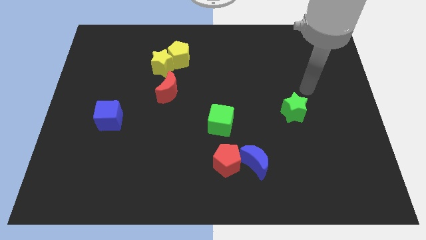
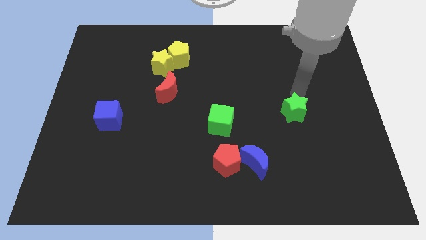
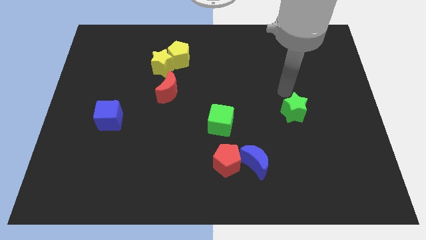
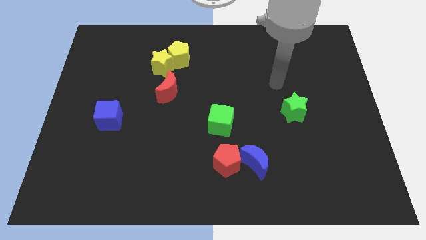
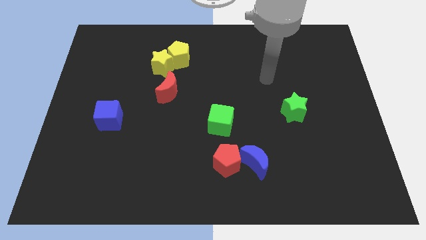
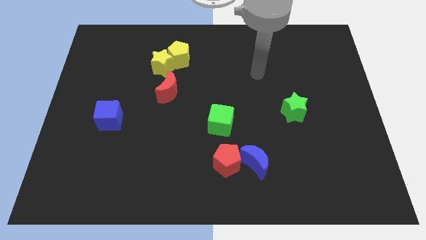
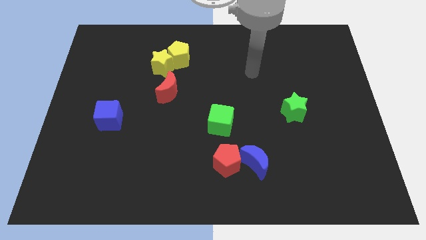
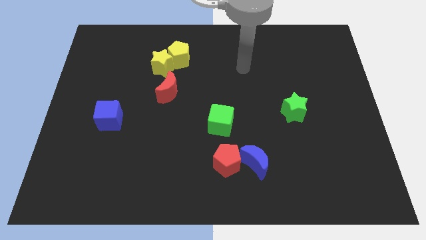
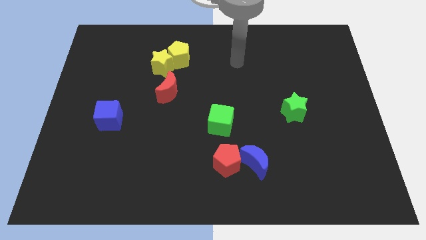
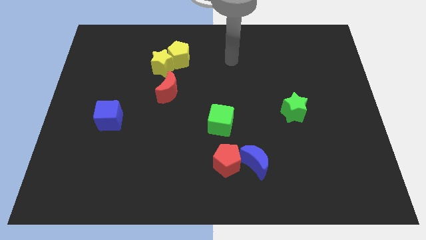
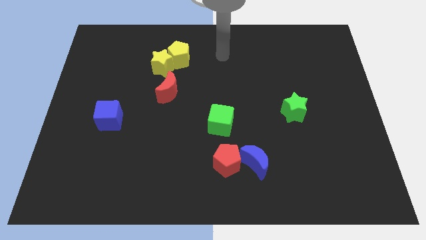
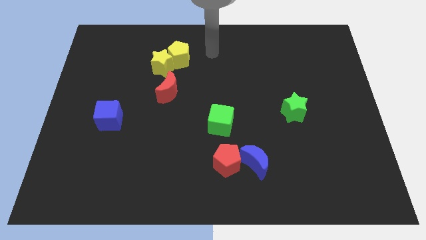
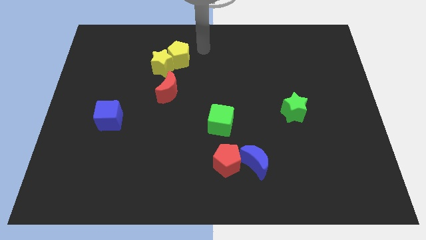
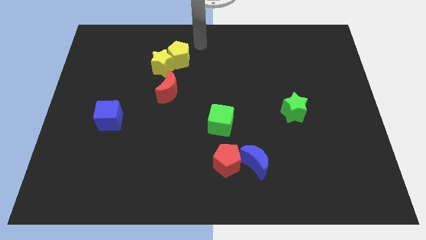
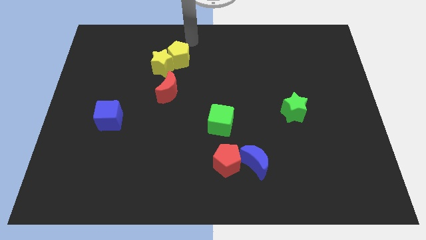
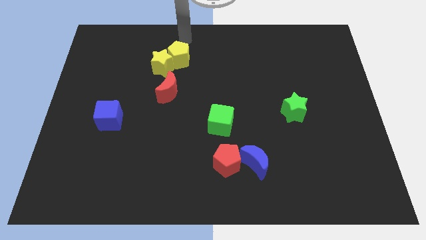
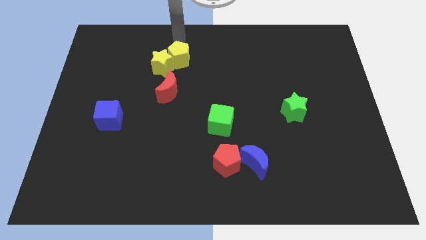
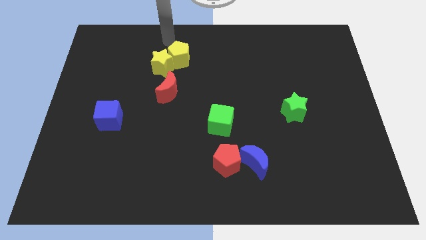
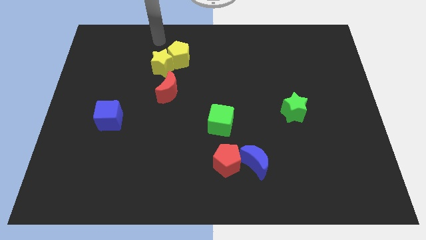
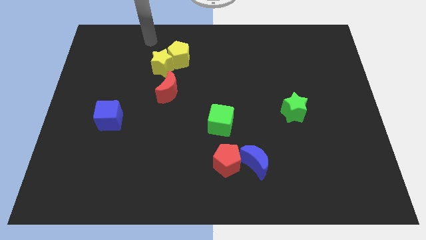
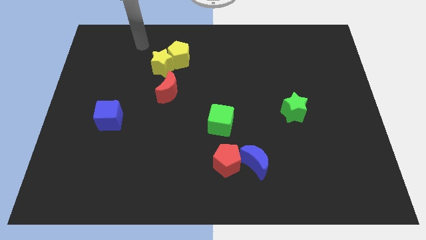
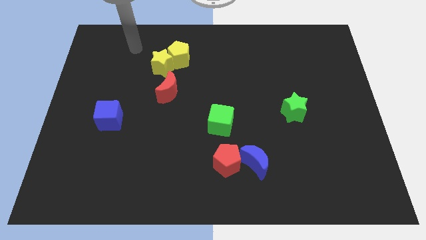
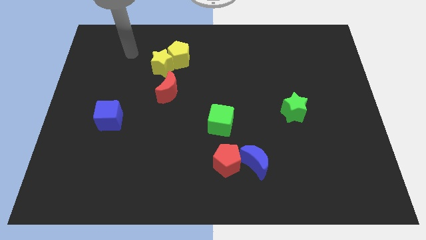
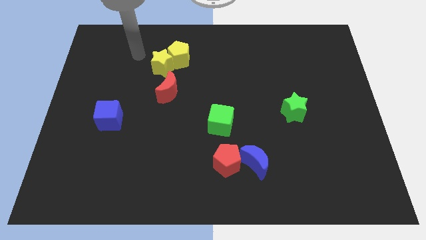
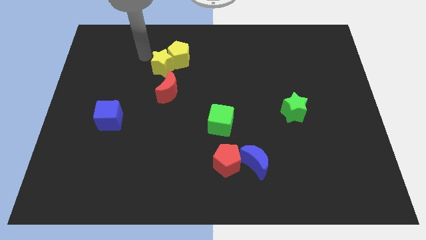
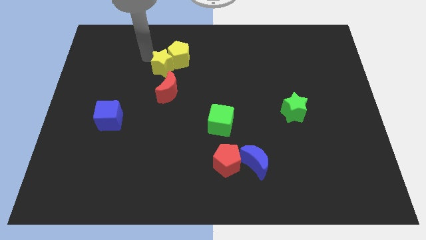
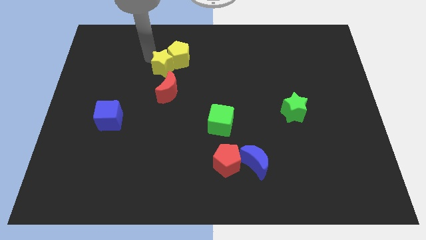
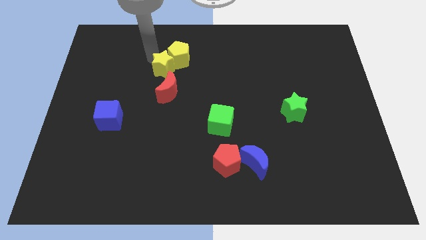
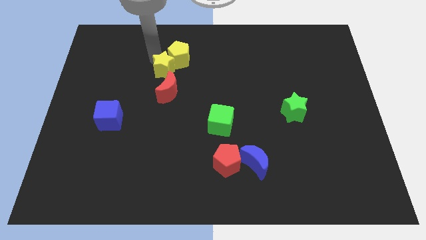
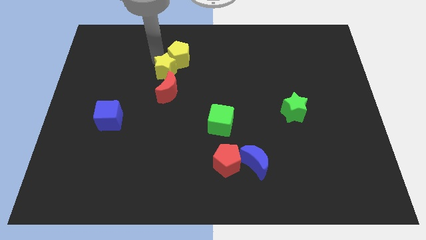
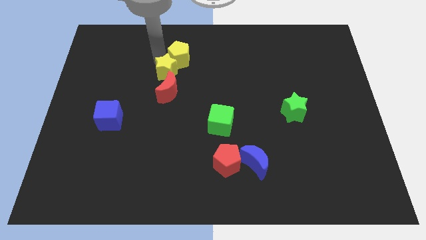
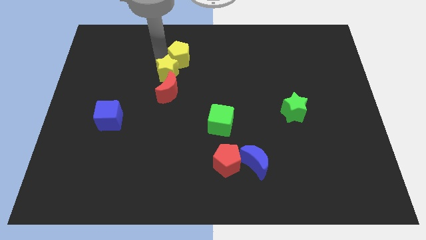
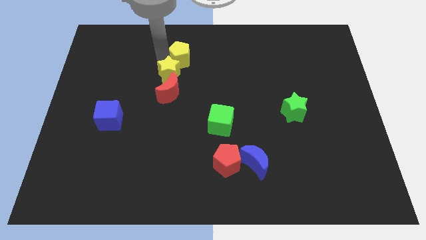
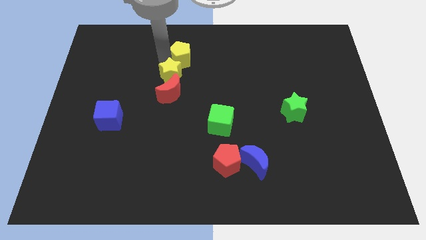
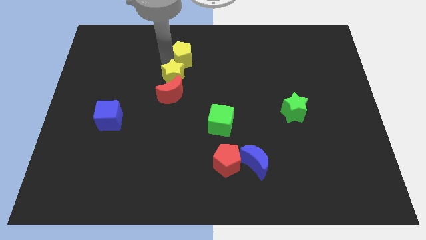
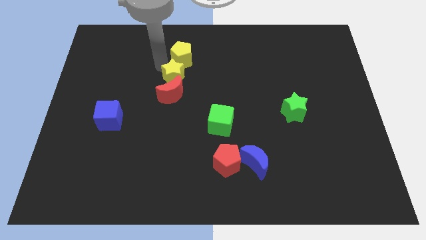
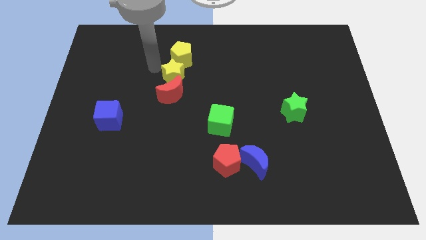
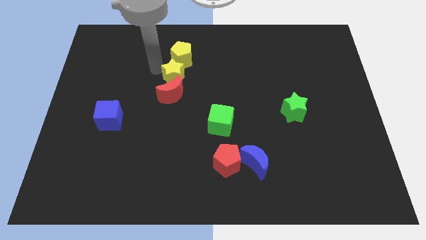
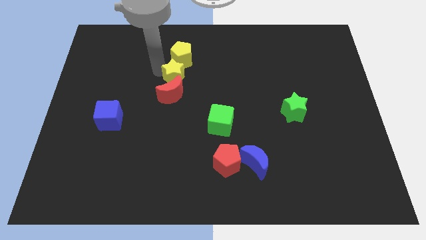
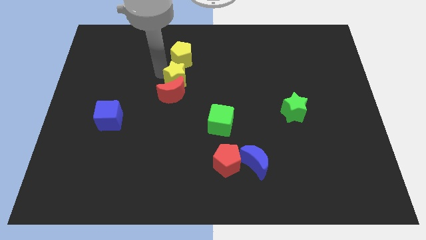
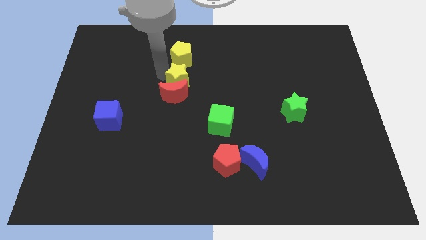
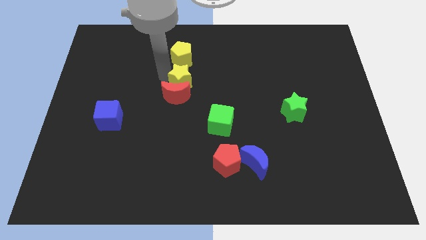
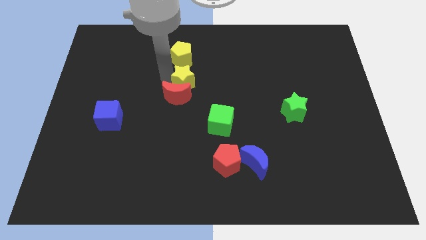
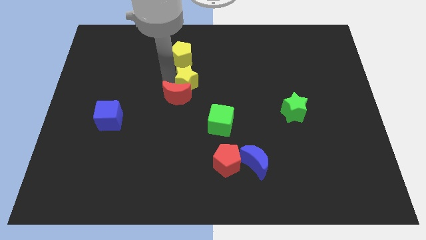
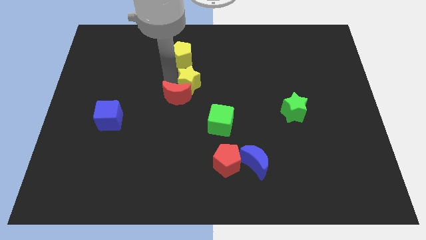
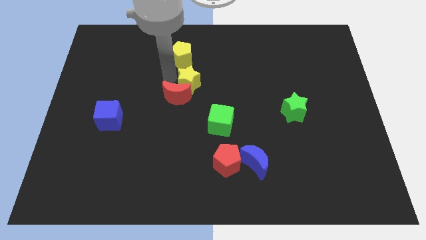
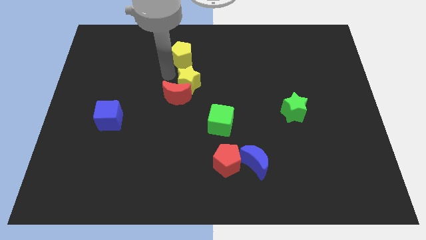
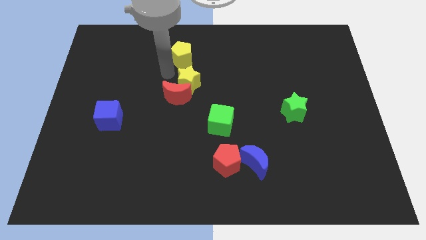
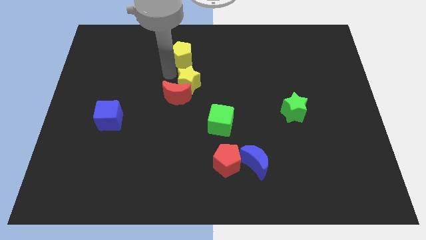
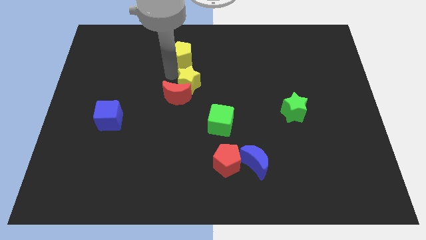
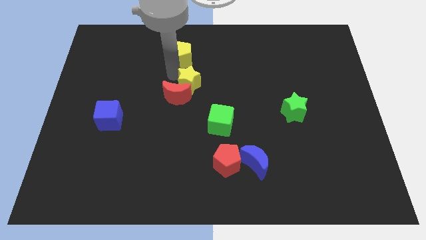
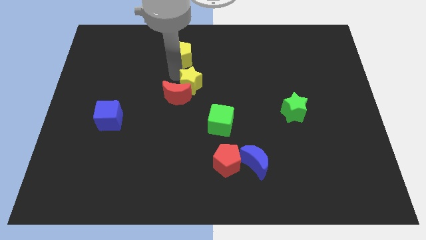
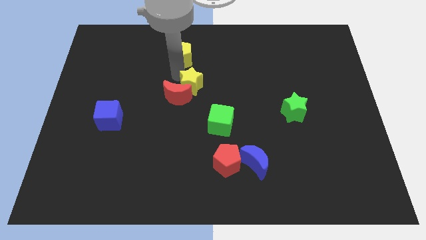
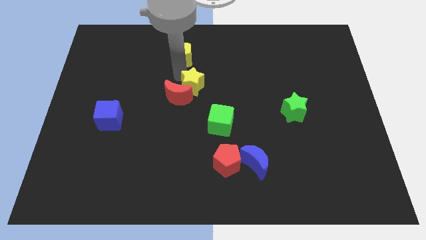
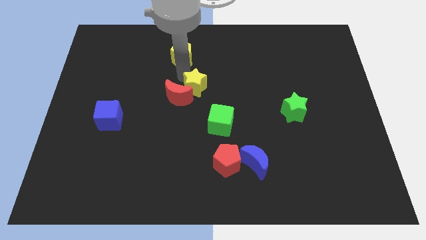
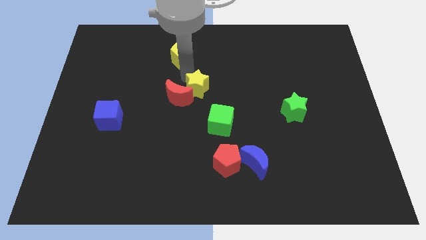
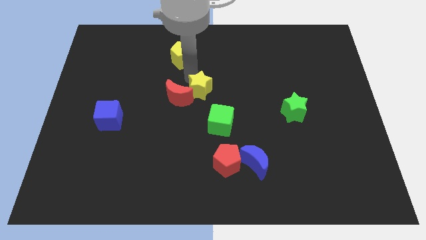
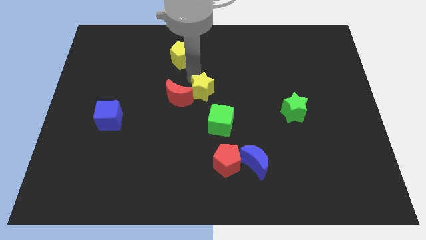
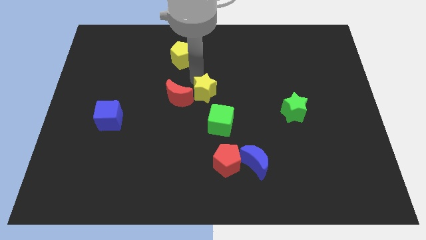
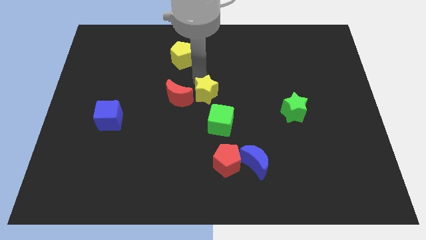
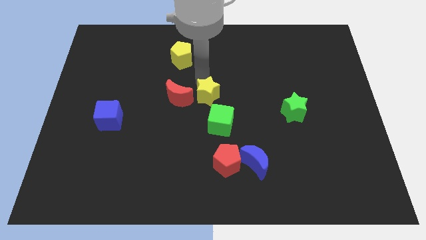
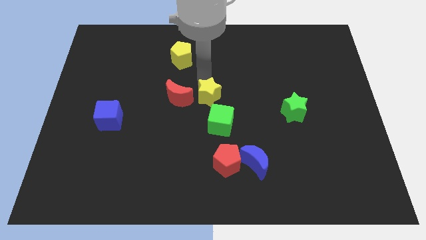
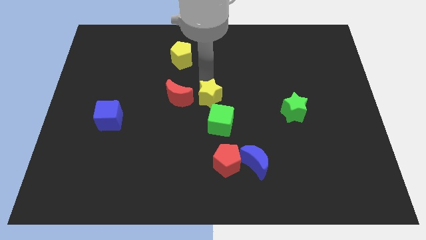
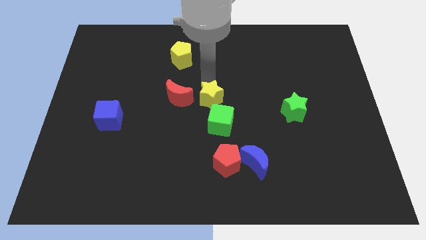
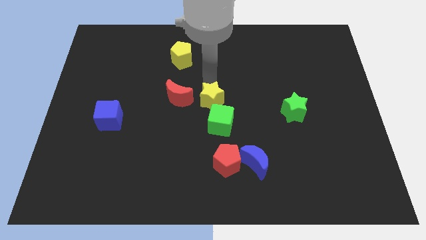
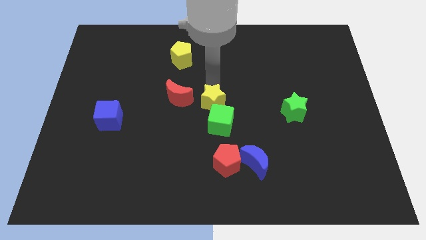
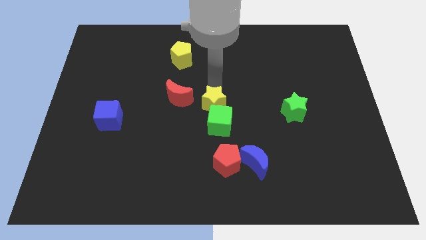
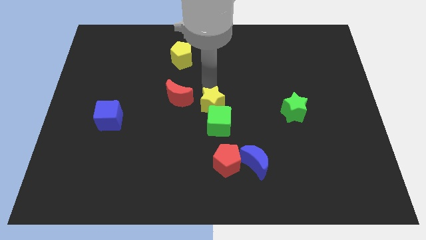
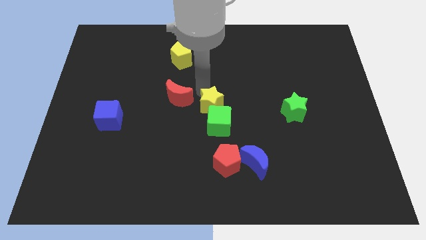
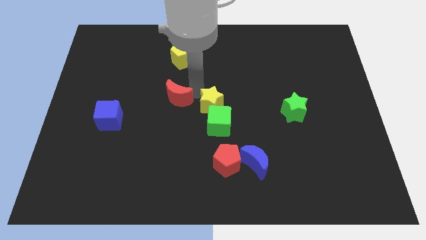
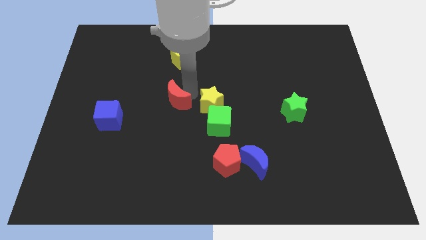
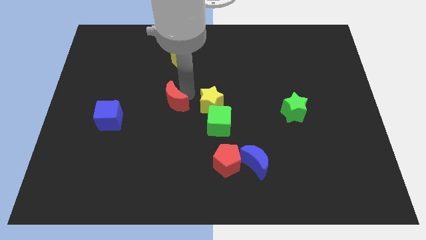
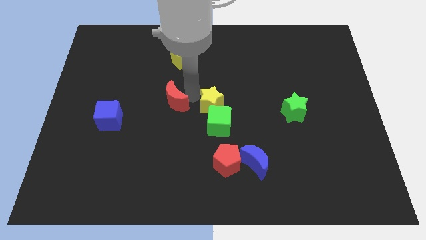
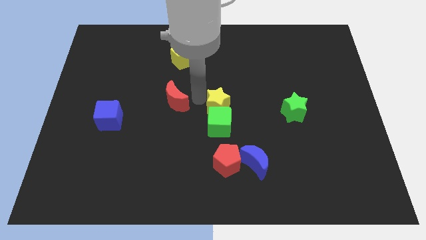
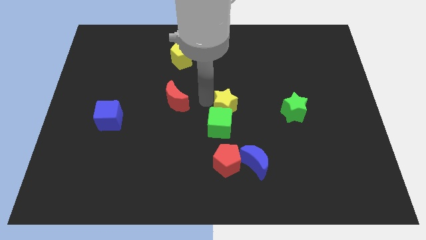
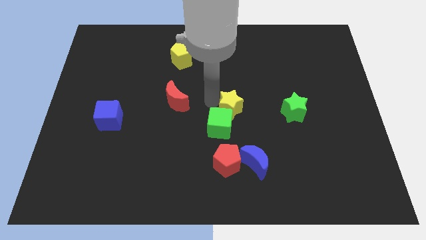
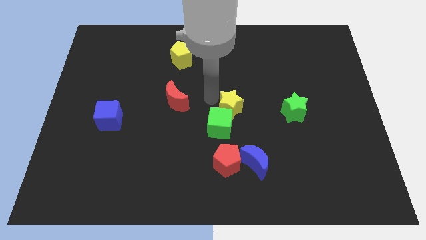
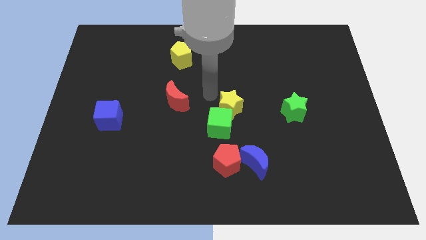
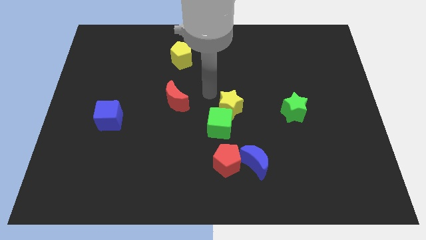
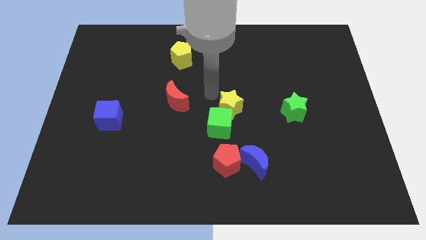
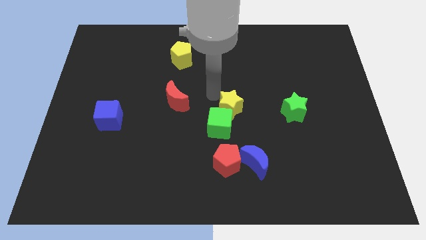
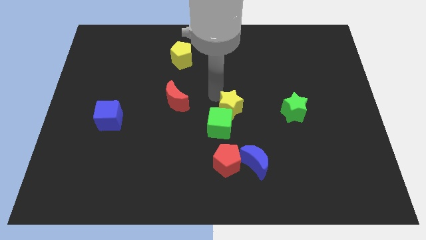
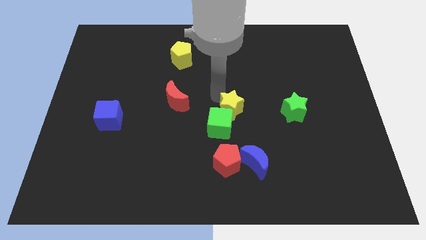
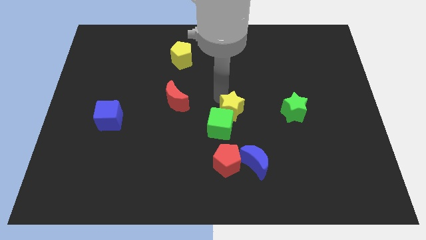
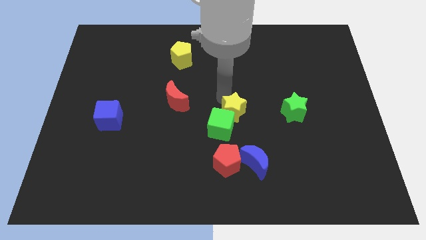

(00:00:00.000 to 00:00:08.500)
push the yellow star to the top side of the blue moon
